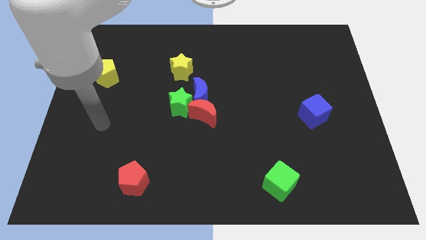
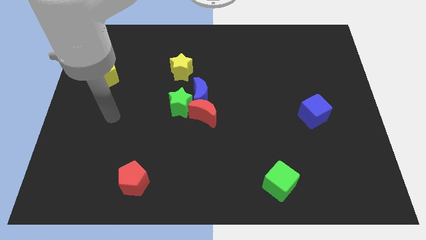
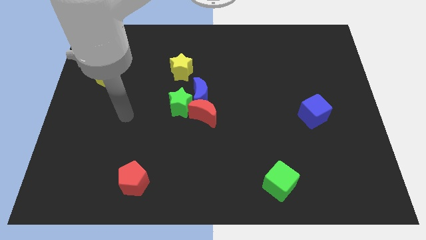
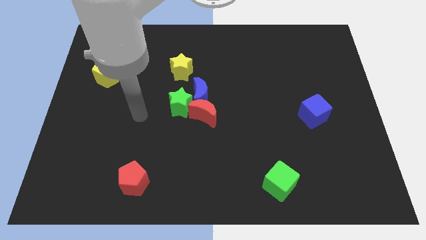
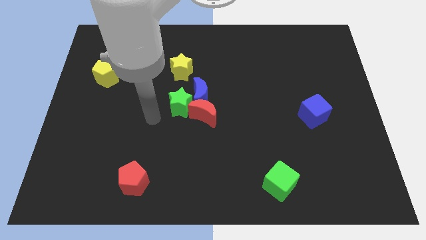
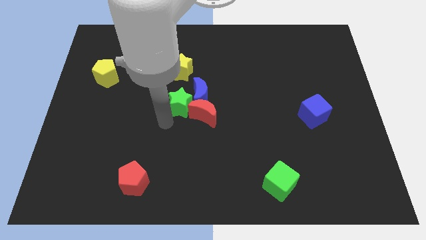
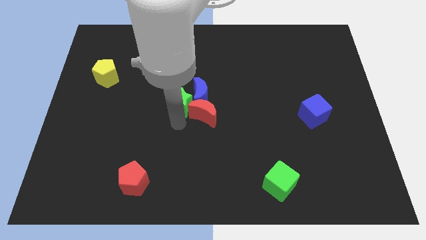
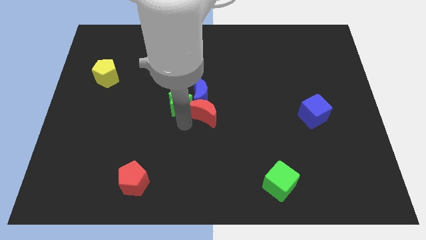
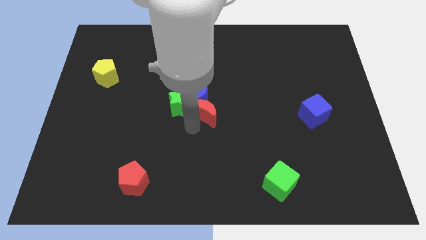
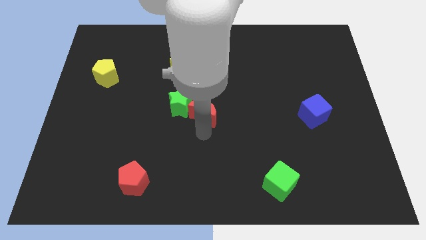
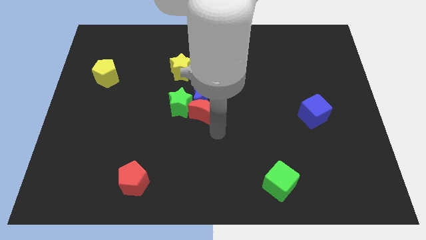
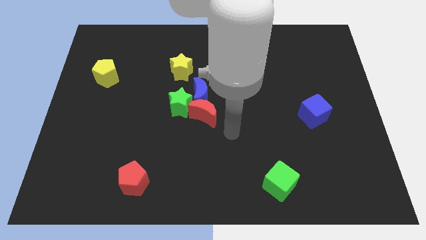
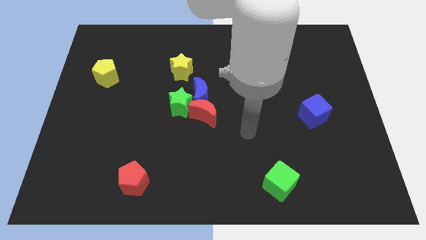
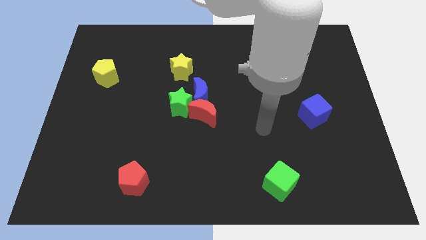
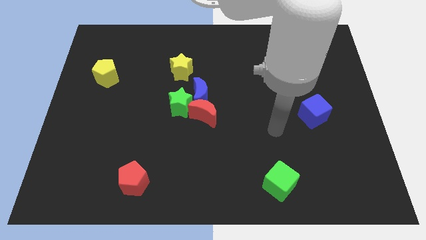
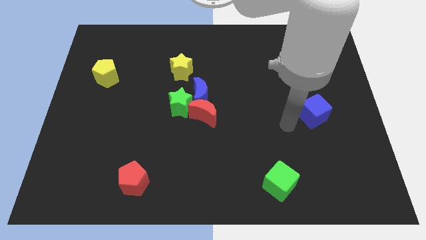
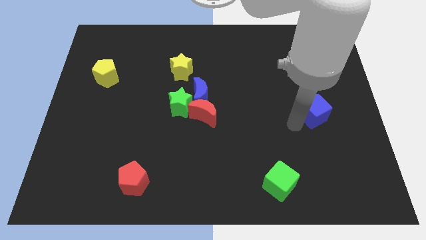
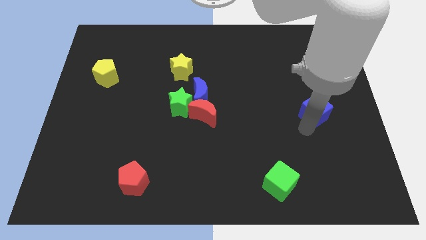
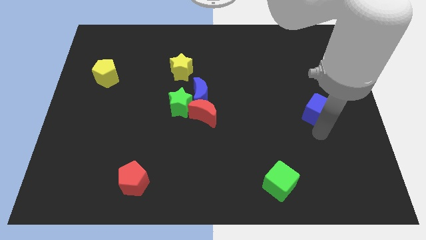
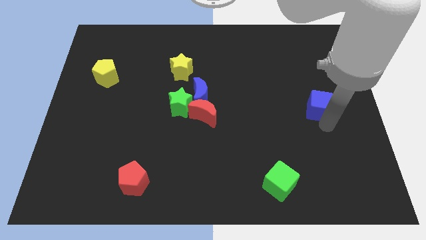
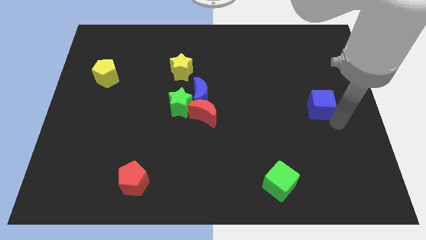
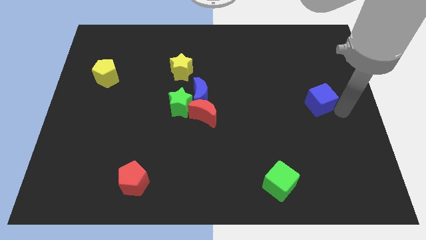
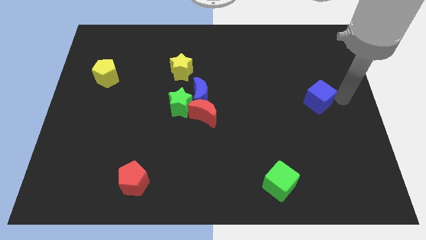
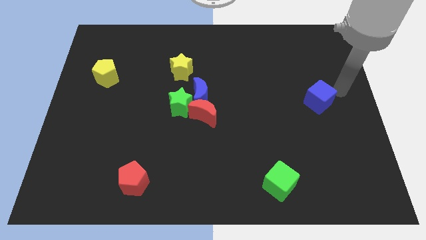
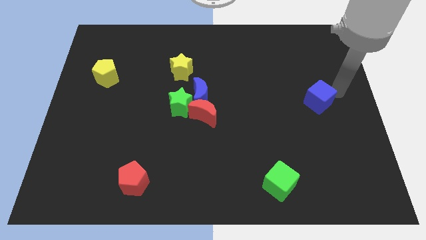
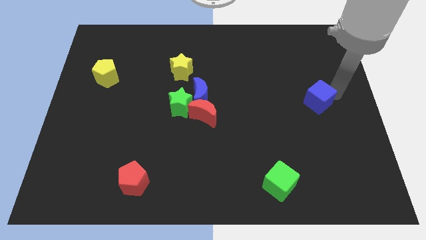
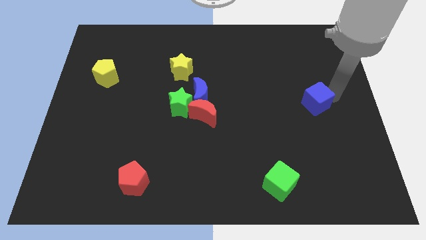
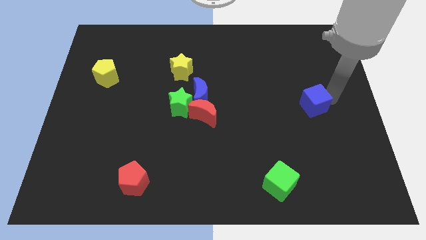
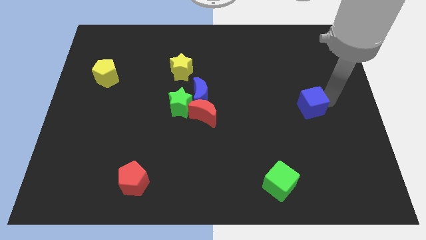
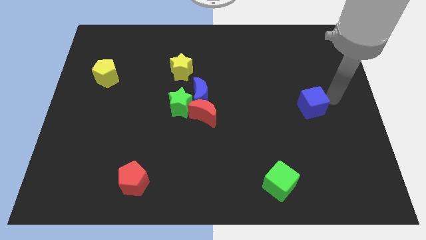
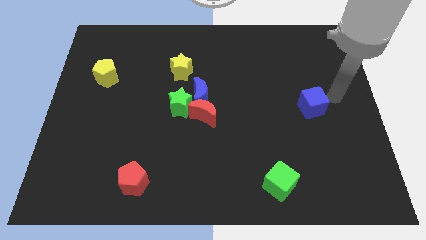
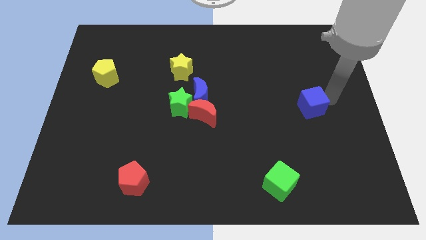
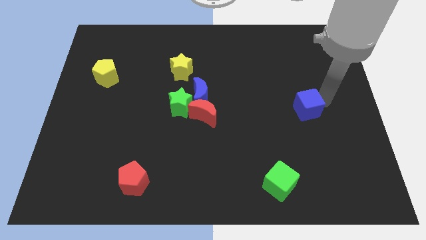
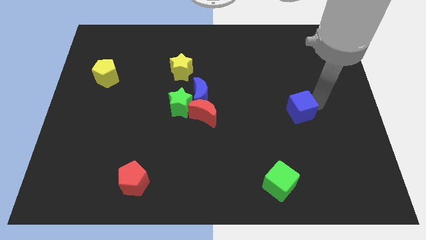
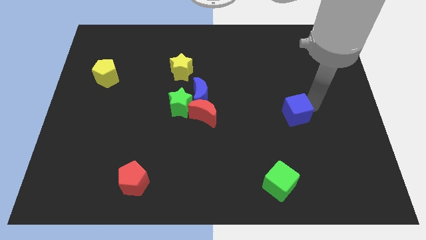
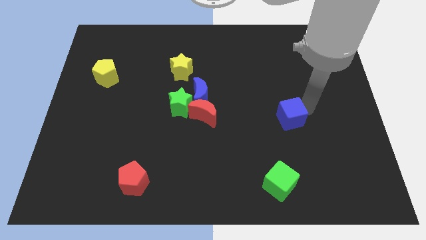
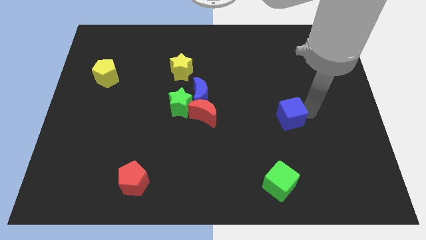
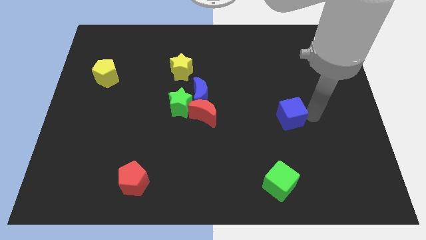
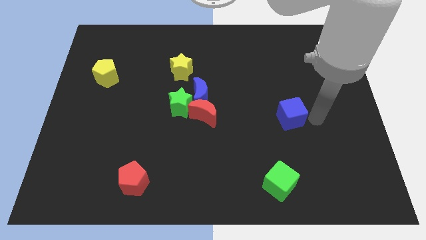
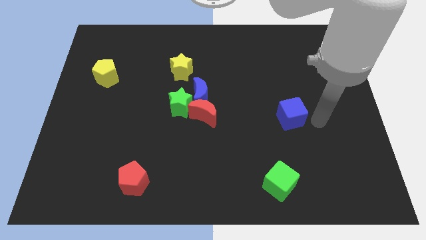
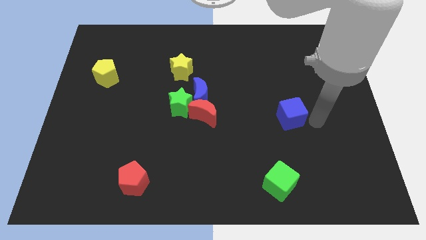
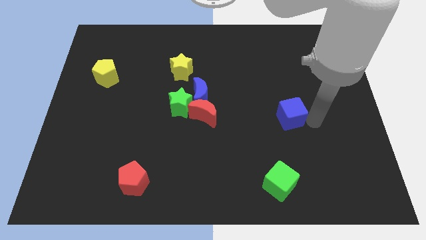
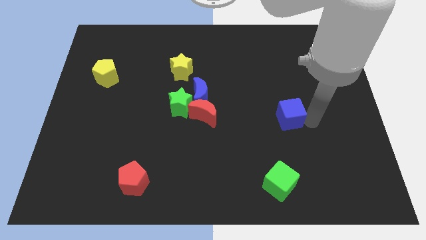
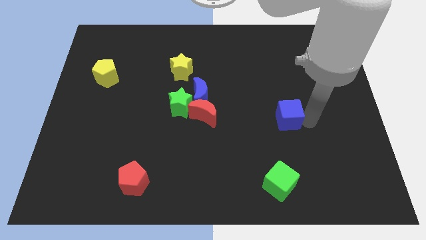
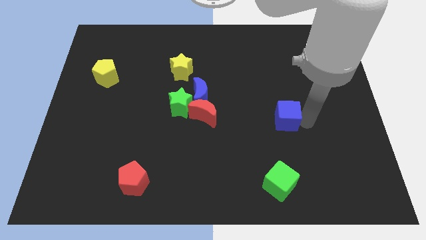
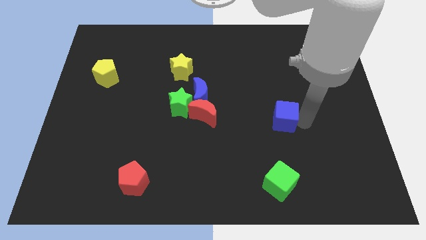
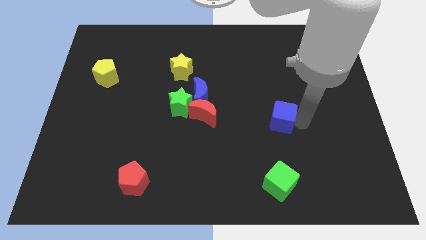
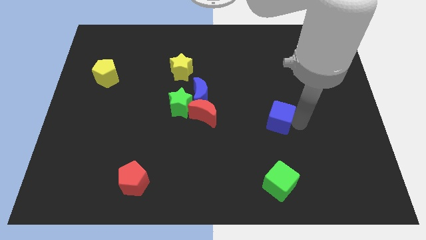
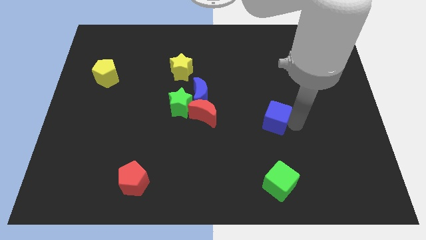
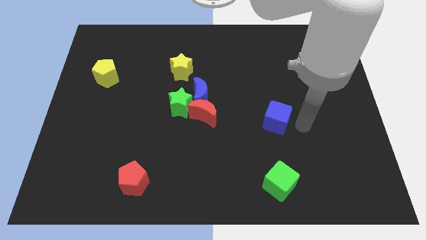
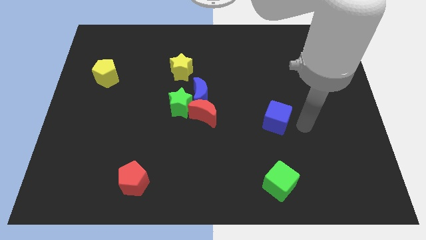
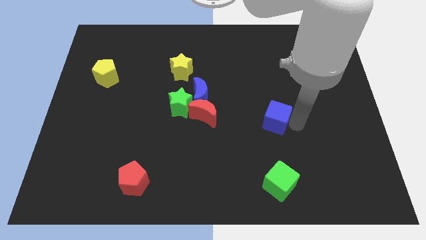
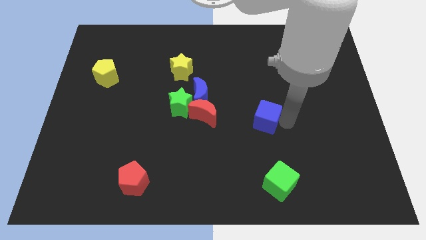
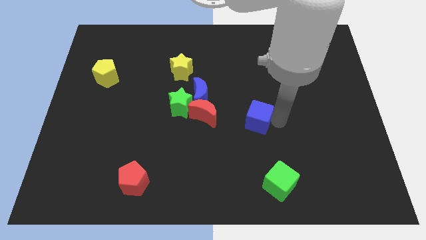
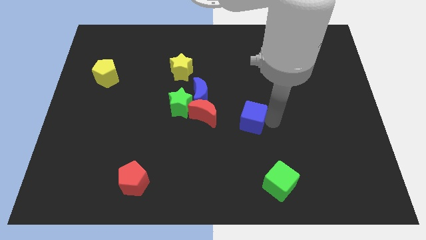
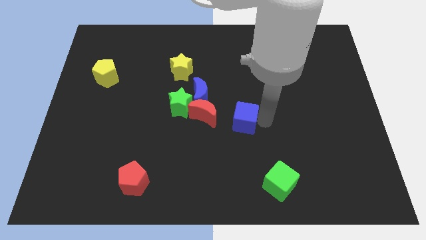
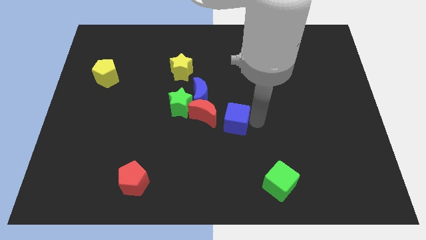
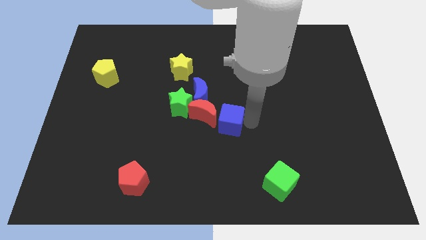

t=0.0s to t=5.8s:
put the blue cube close to the red moon
